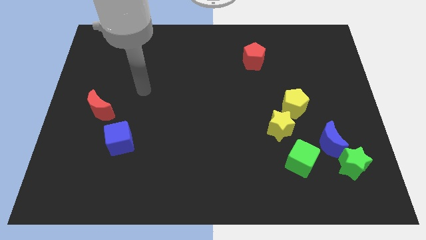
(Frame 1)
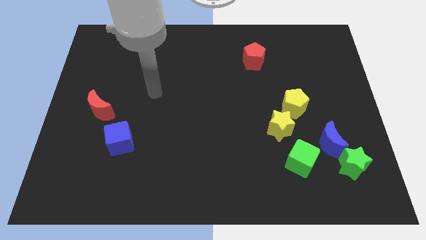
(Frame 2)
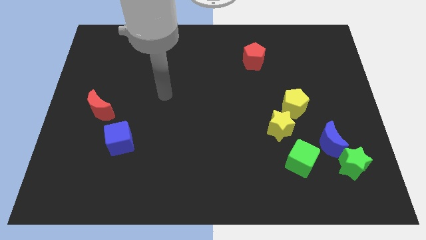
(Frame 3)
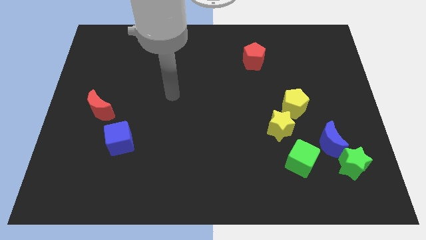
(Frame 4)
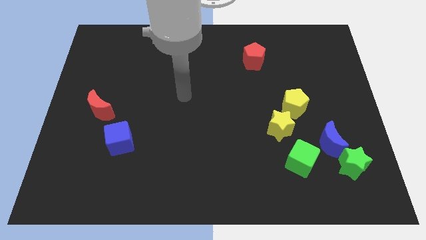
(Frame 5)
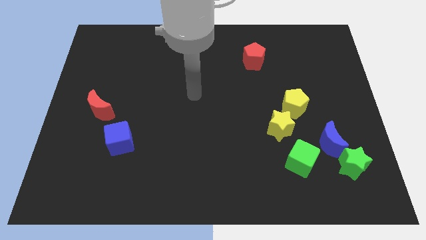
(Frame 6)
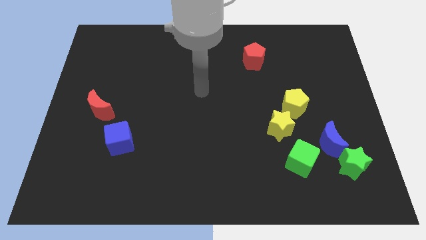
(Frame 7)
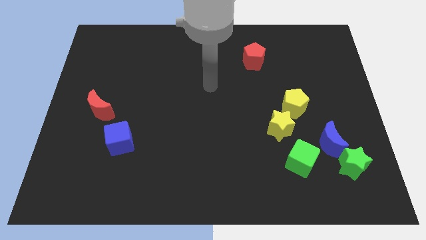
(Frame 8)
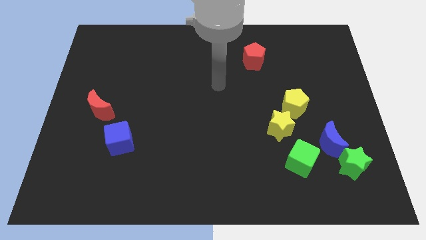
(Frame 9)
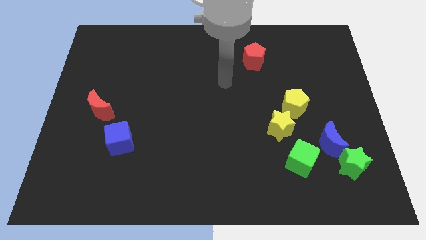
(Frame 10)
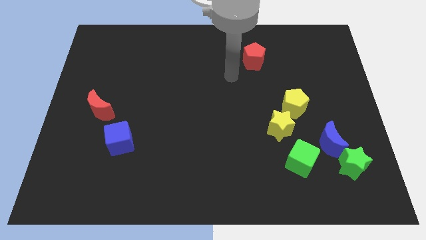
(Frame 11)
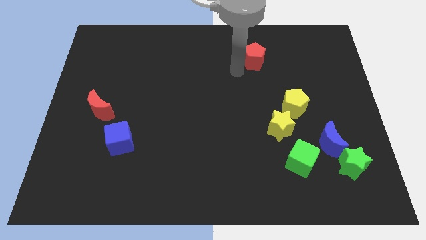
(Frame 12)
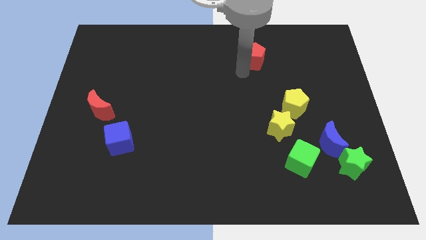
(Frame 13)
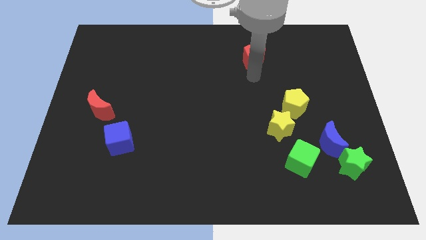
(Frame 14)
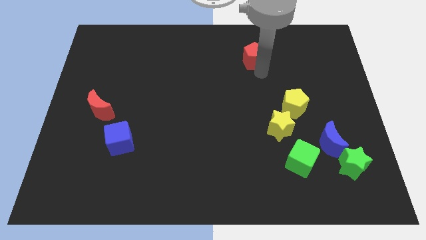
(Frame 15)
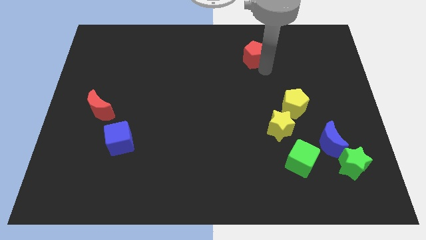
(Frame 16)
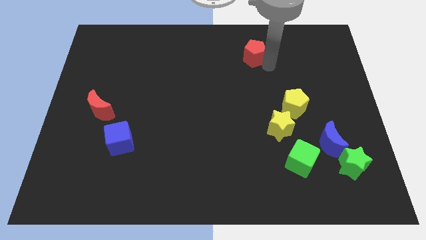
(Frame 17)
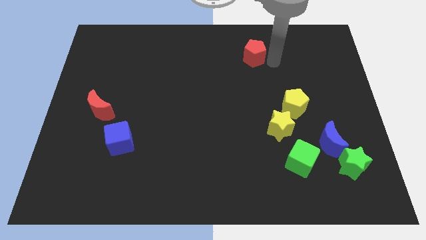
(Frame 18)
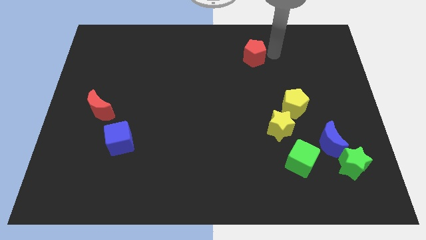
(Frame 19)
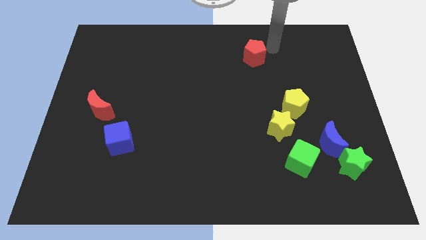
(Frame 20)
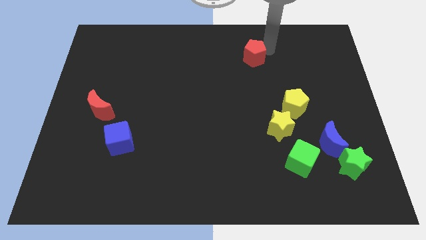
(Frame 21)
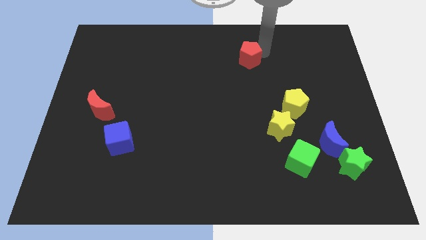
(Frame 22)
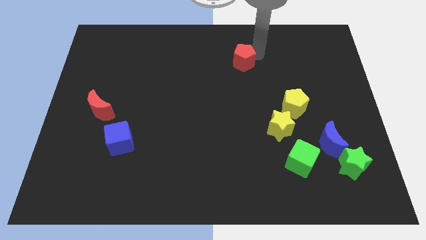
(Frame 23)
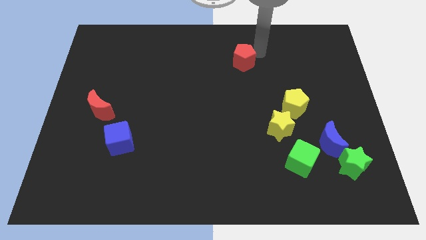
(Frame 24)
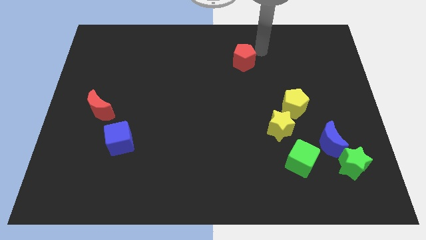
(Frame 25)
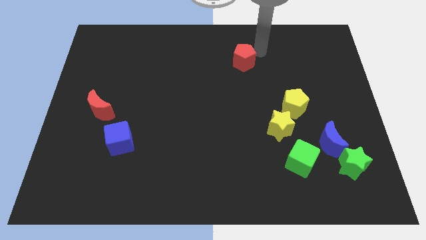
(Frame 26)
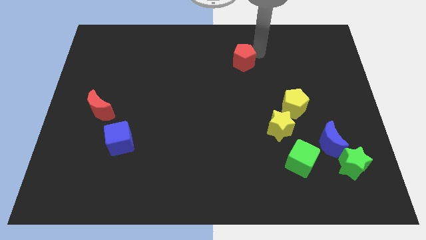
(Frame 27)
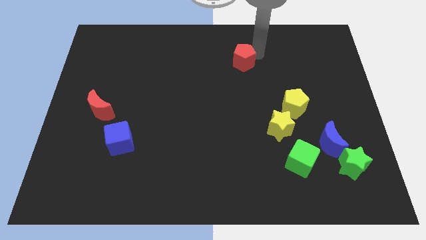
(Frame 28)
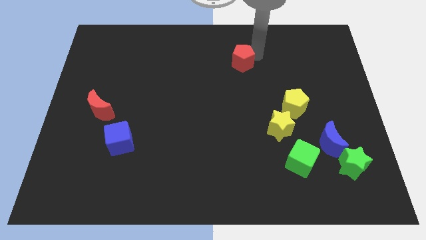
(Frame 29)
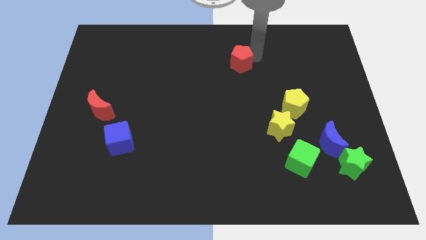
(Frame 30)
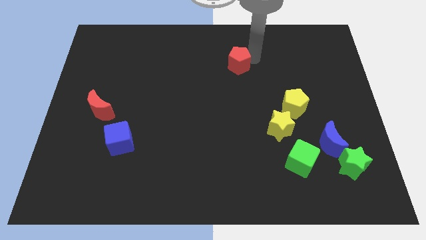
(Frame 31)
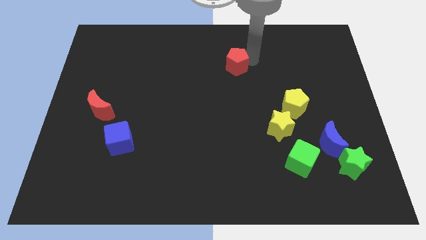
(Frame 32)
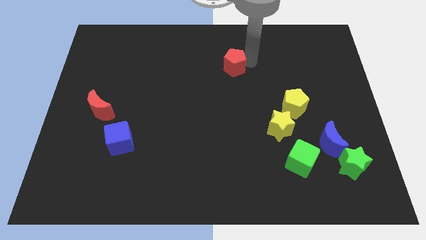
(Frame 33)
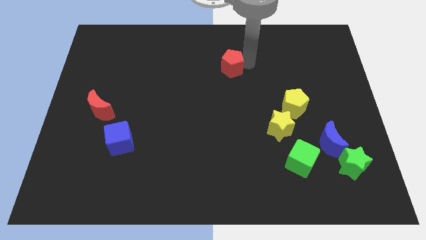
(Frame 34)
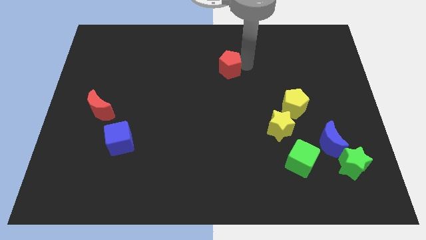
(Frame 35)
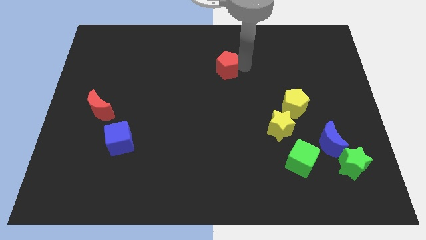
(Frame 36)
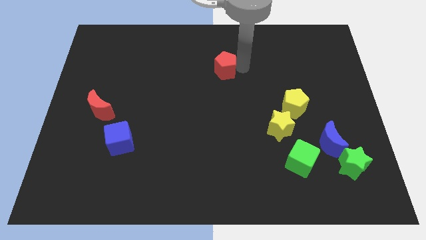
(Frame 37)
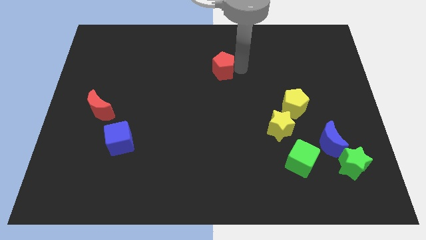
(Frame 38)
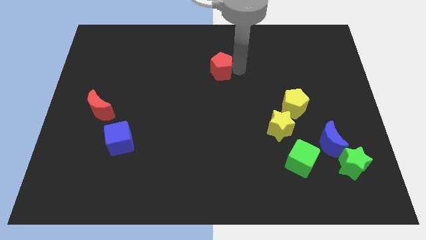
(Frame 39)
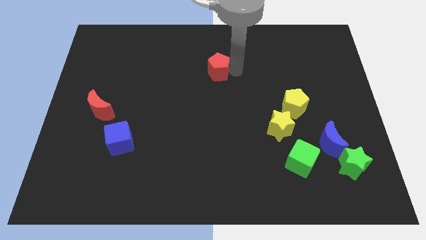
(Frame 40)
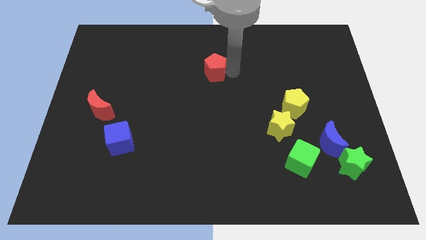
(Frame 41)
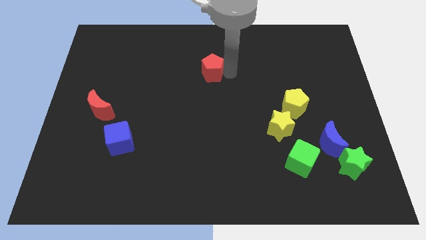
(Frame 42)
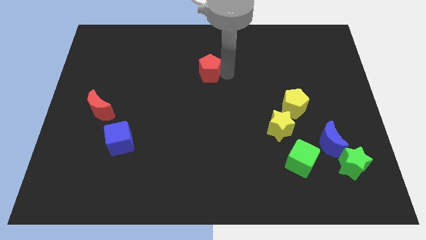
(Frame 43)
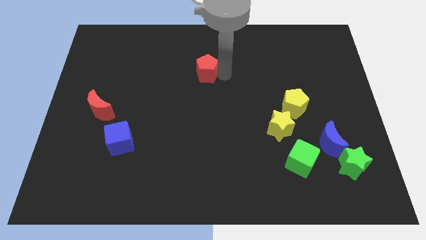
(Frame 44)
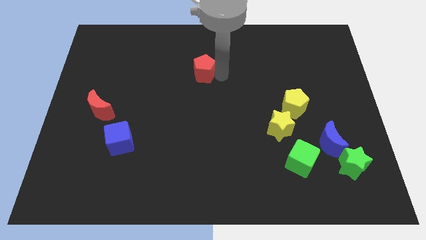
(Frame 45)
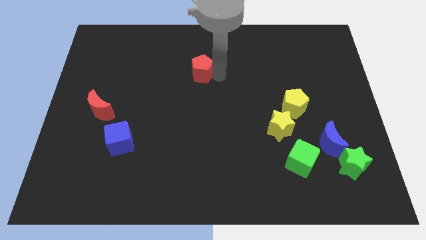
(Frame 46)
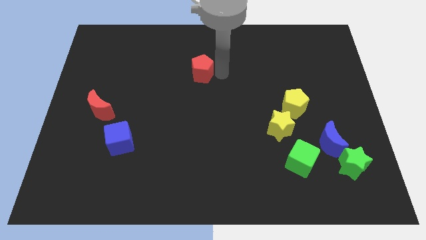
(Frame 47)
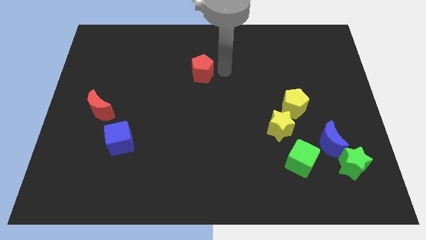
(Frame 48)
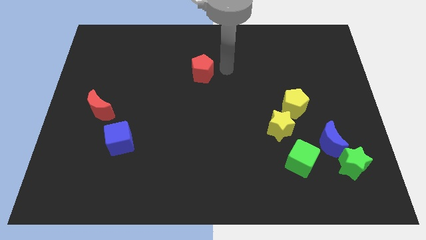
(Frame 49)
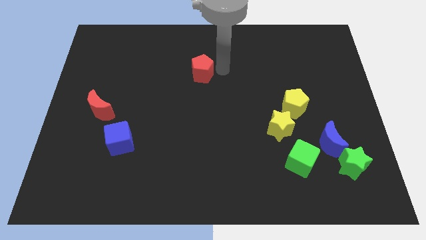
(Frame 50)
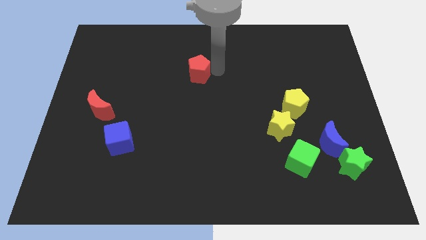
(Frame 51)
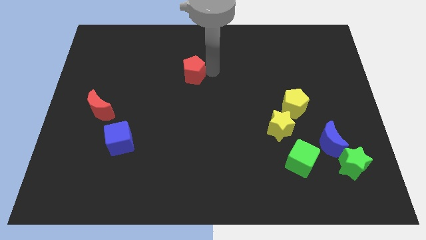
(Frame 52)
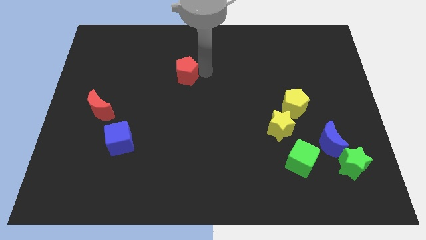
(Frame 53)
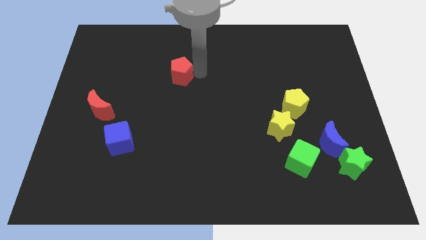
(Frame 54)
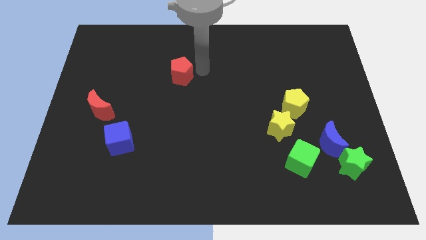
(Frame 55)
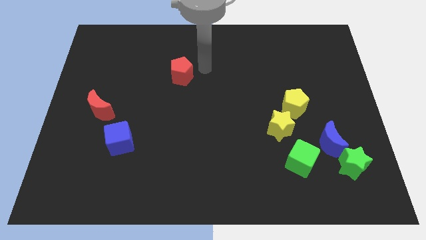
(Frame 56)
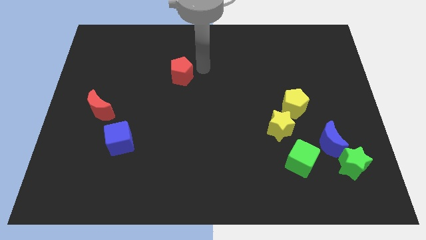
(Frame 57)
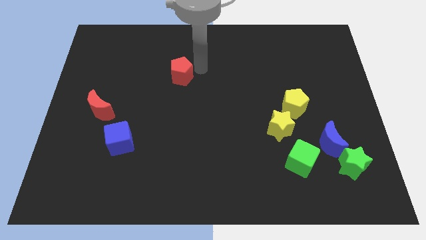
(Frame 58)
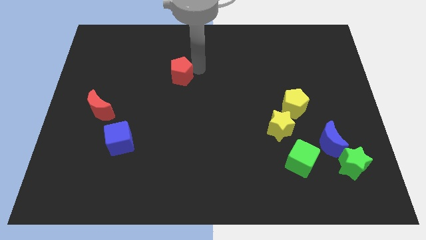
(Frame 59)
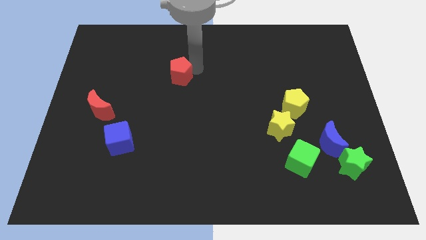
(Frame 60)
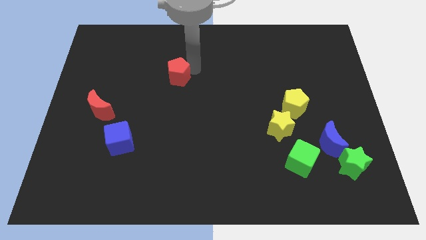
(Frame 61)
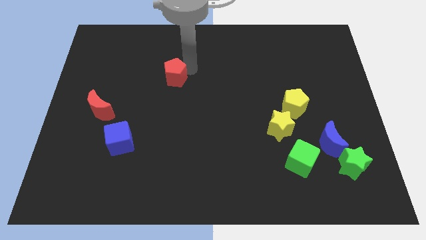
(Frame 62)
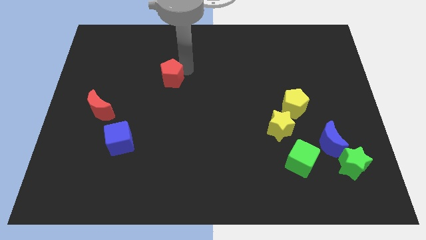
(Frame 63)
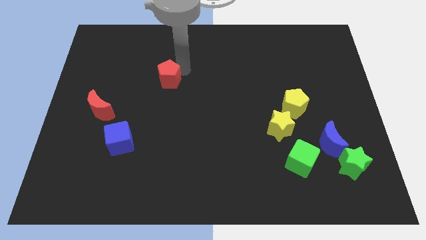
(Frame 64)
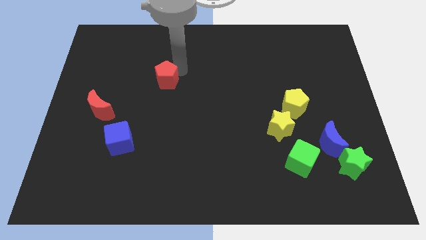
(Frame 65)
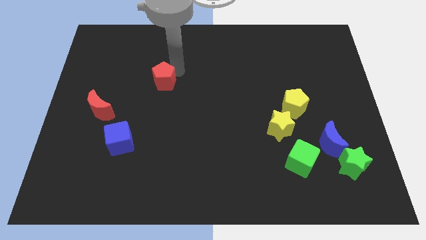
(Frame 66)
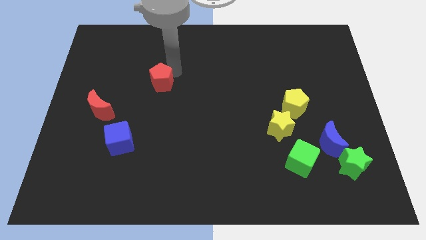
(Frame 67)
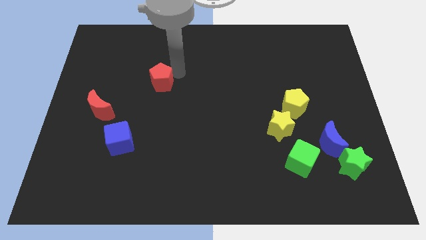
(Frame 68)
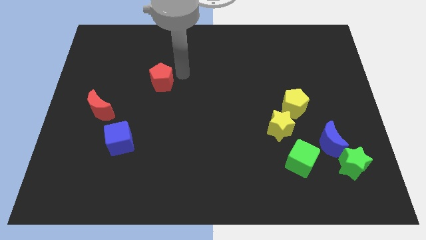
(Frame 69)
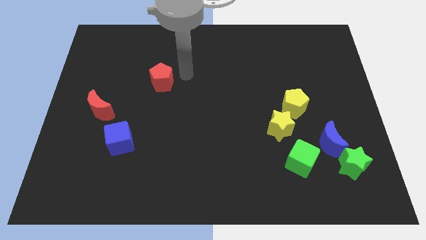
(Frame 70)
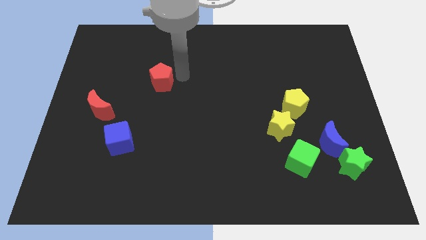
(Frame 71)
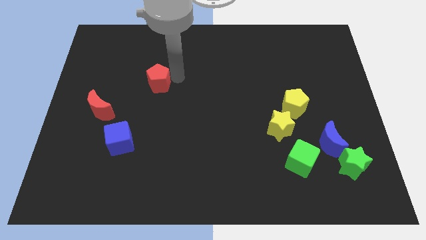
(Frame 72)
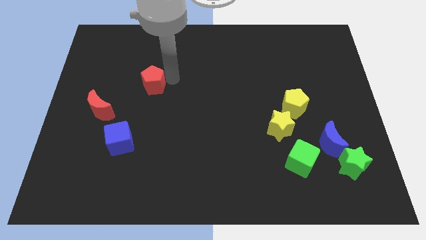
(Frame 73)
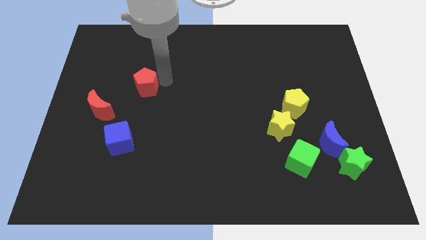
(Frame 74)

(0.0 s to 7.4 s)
put the red pentagon to the top right of the red moon

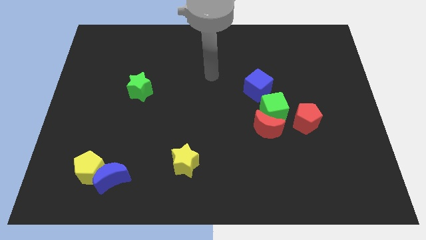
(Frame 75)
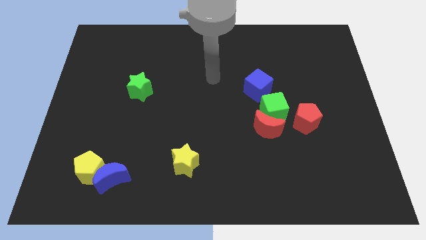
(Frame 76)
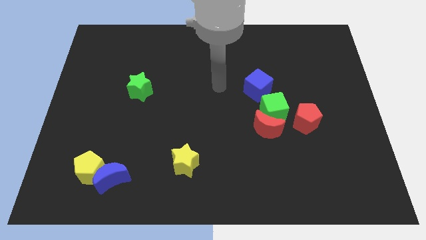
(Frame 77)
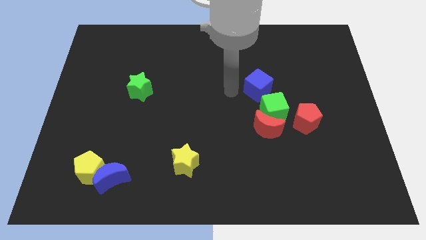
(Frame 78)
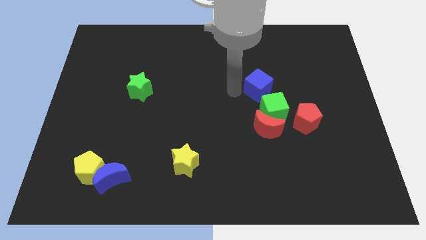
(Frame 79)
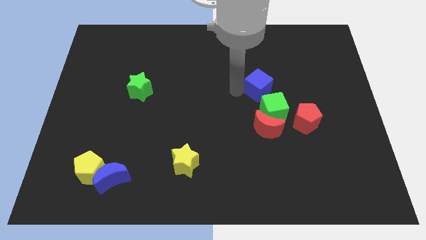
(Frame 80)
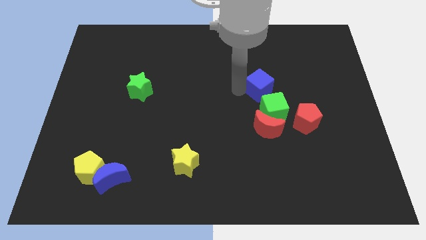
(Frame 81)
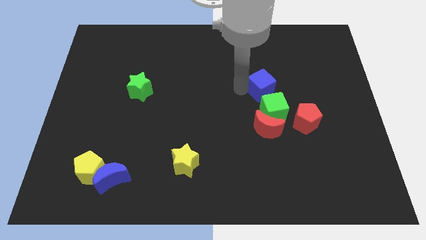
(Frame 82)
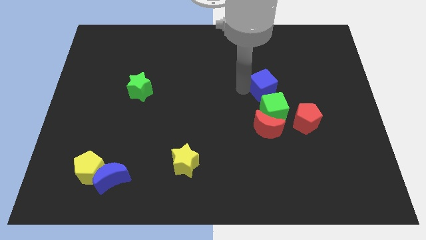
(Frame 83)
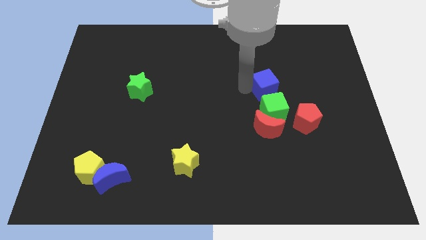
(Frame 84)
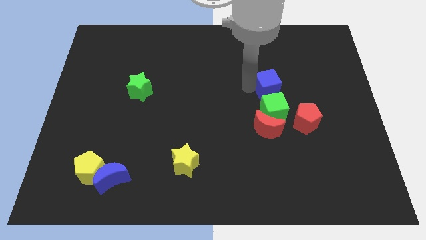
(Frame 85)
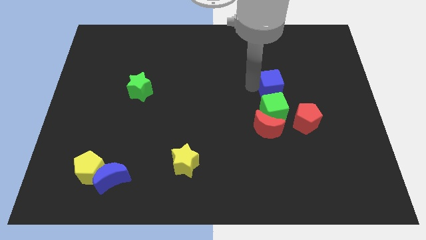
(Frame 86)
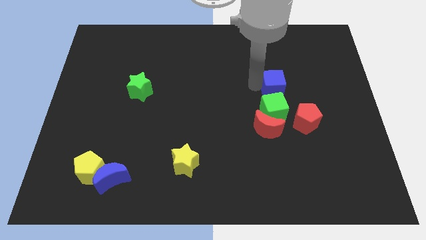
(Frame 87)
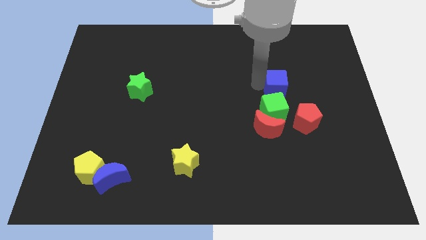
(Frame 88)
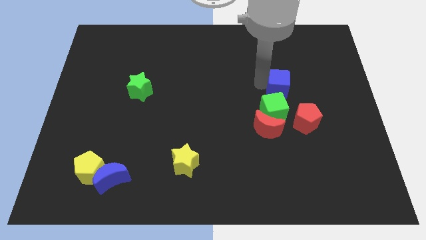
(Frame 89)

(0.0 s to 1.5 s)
put the blue cube to the top of the red pentagon
